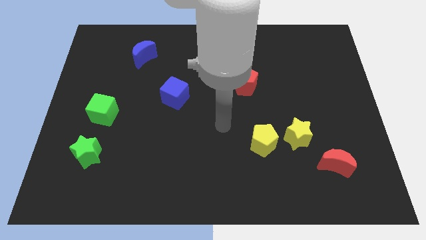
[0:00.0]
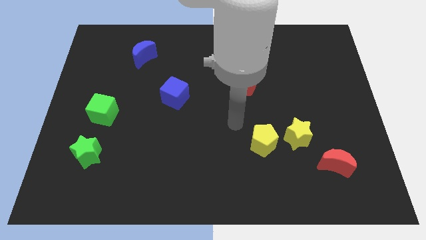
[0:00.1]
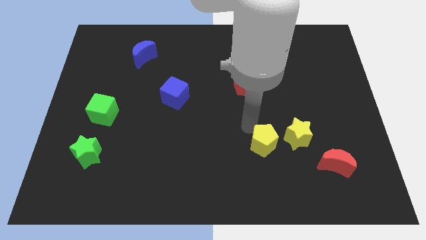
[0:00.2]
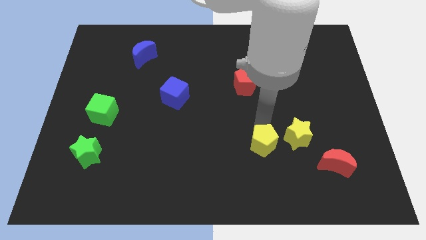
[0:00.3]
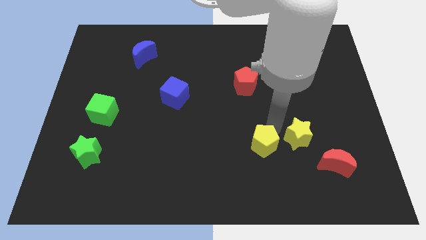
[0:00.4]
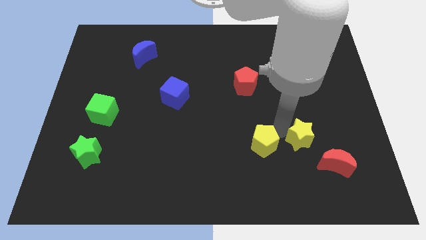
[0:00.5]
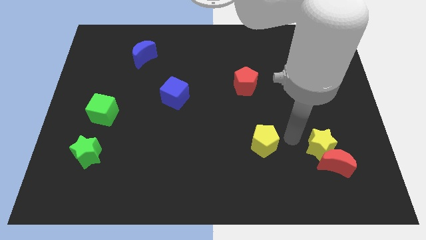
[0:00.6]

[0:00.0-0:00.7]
separate the yellow pentagon from the yellow star

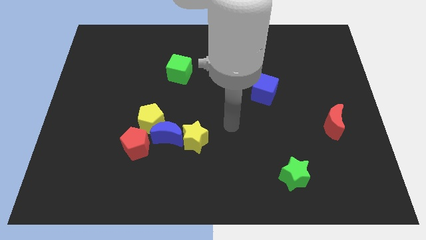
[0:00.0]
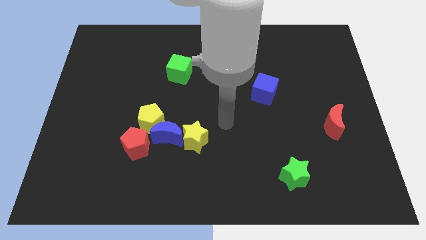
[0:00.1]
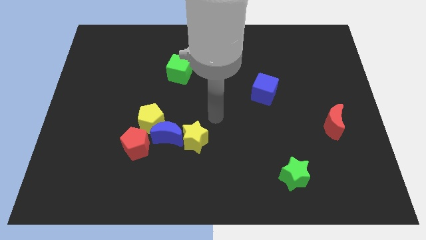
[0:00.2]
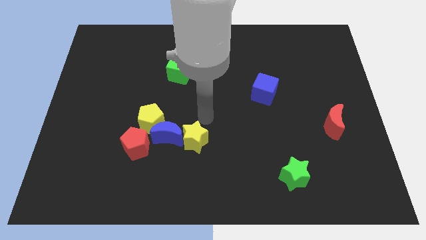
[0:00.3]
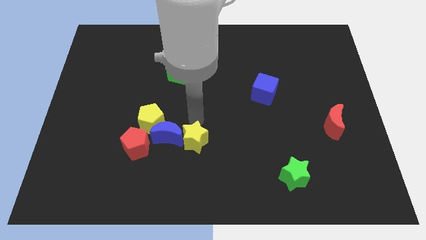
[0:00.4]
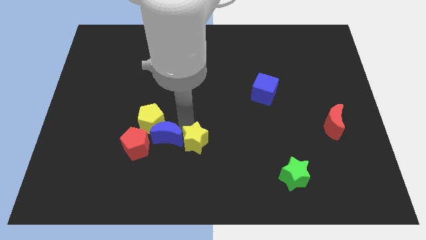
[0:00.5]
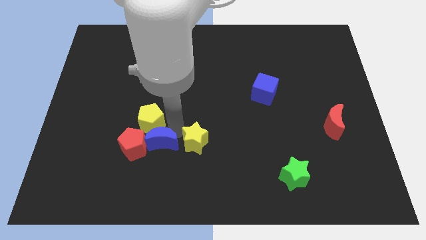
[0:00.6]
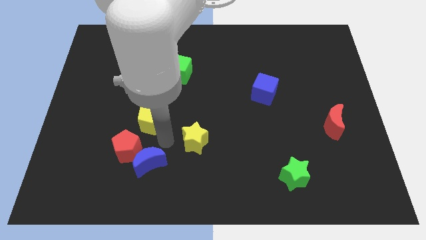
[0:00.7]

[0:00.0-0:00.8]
separate the yellow star from the blue moon

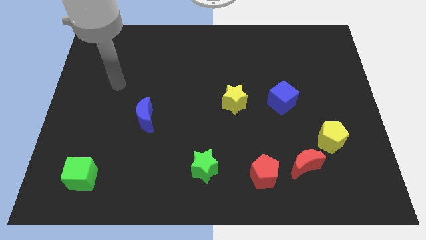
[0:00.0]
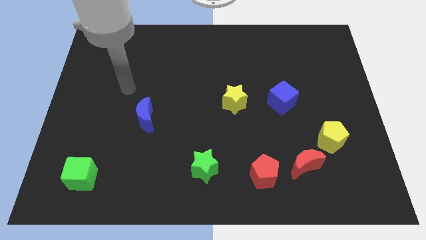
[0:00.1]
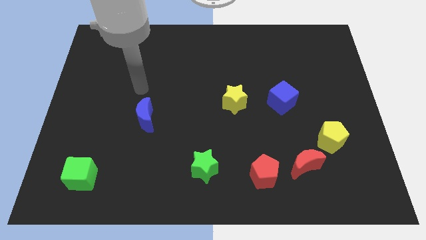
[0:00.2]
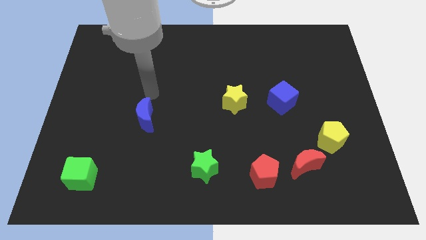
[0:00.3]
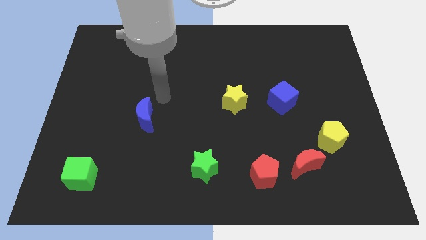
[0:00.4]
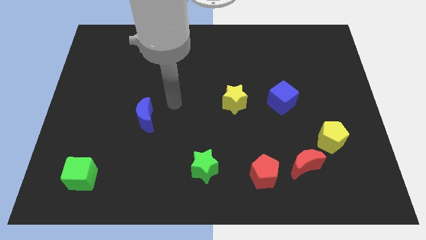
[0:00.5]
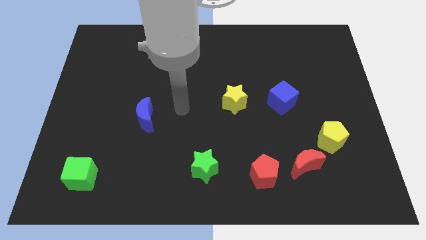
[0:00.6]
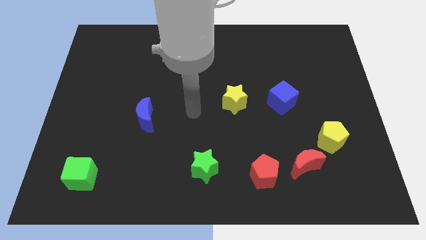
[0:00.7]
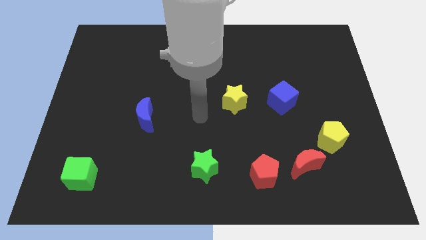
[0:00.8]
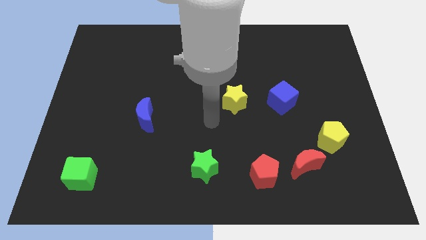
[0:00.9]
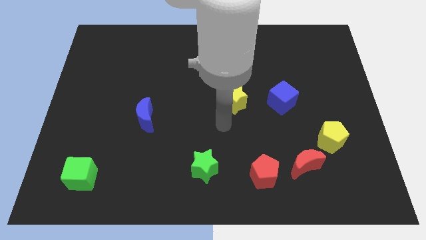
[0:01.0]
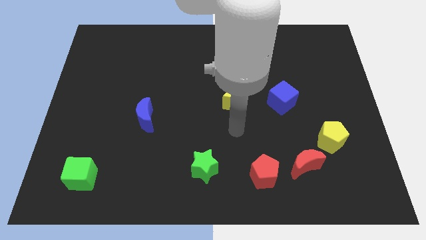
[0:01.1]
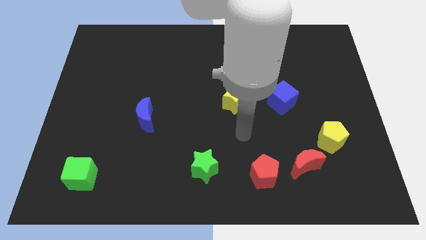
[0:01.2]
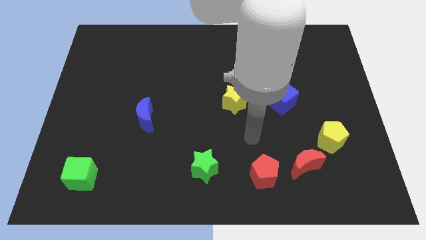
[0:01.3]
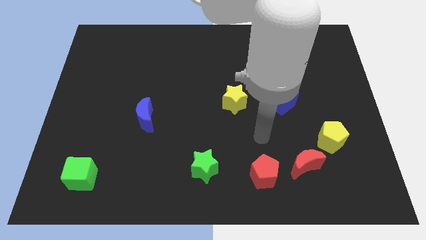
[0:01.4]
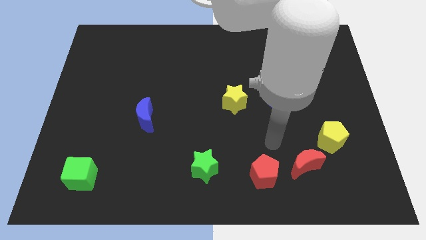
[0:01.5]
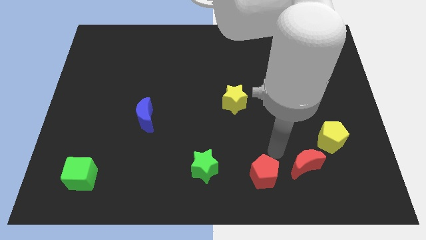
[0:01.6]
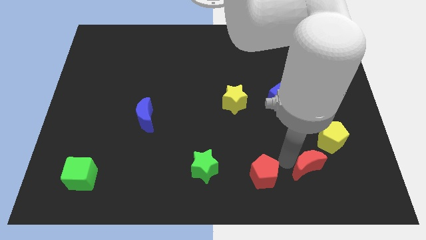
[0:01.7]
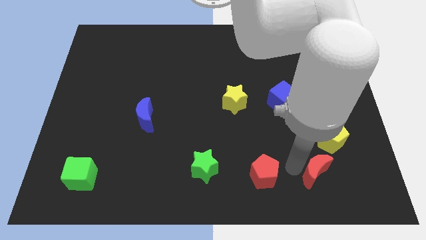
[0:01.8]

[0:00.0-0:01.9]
separate the red pentagon from the red moon

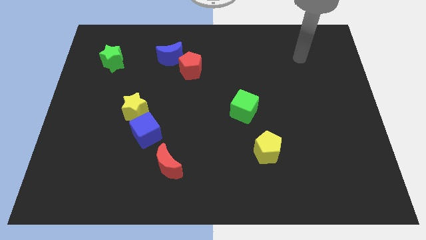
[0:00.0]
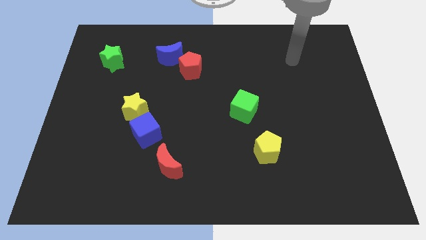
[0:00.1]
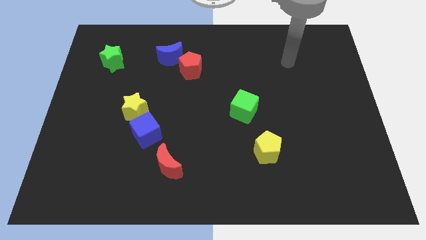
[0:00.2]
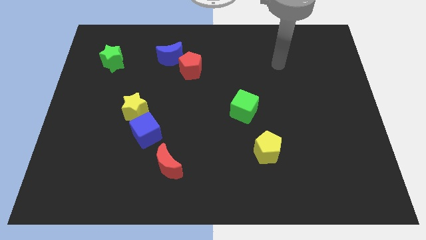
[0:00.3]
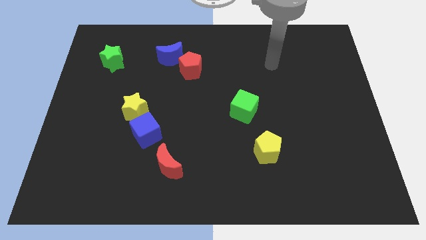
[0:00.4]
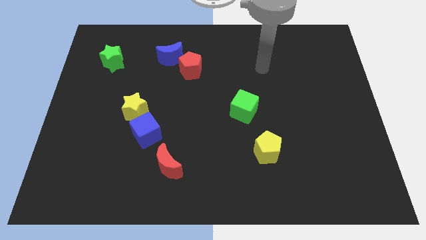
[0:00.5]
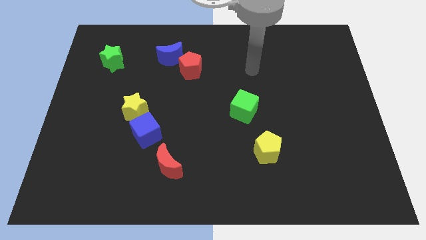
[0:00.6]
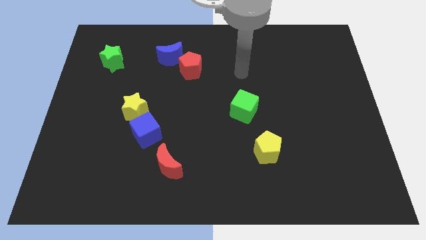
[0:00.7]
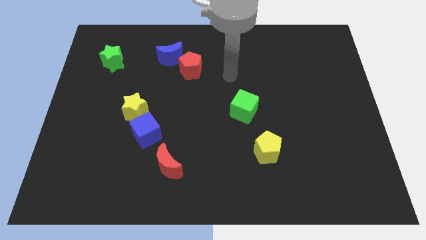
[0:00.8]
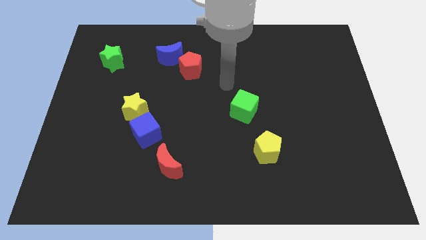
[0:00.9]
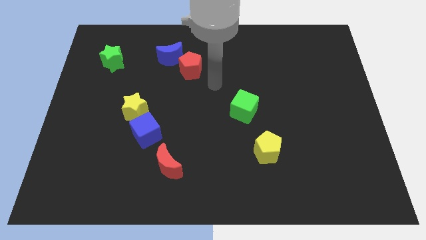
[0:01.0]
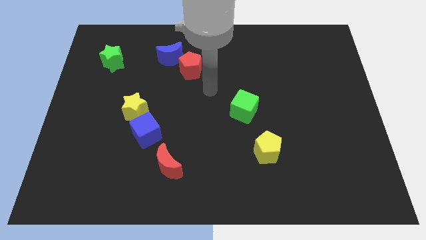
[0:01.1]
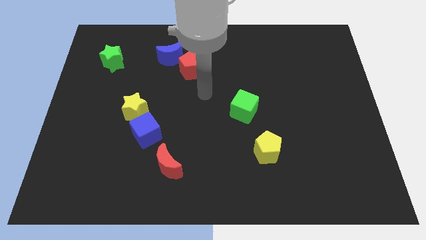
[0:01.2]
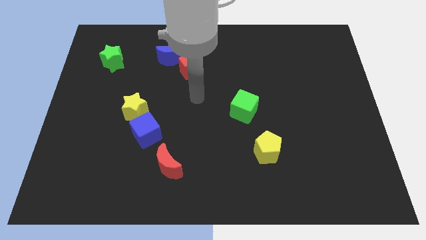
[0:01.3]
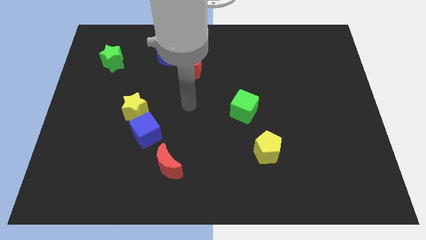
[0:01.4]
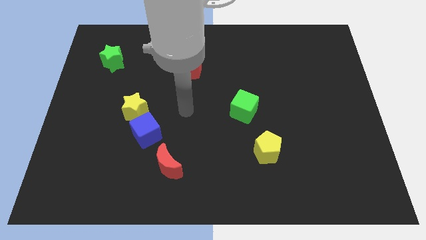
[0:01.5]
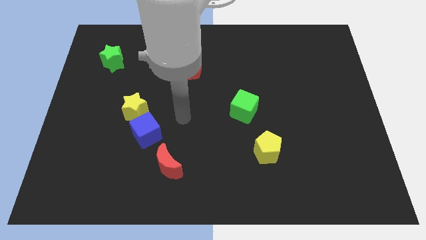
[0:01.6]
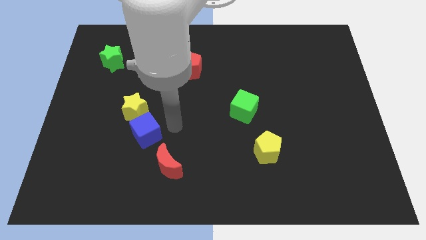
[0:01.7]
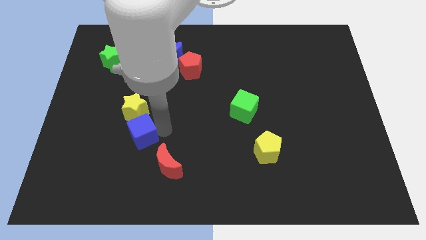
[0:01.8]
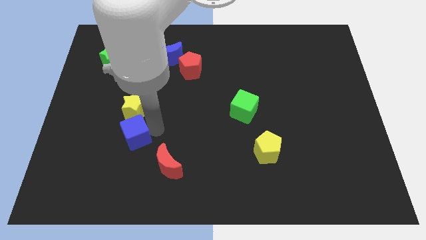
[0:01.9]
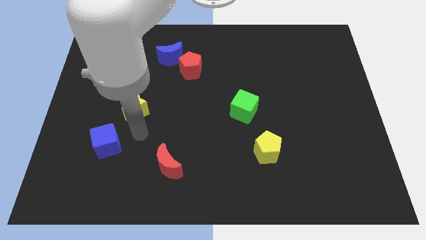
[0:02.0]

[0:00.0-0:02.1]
move the yellow star away from the blue cube

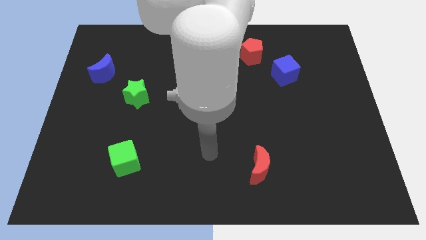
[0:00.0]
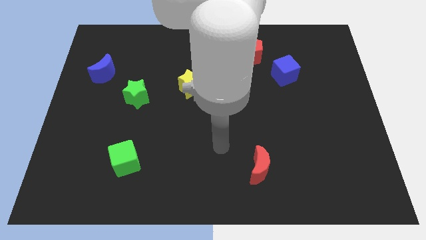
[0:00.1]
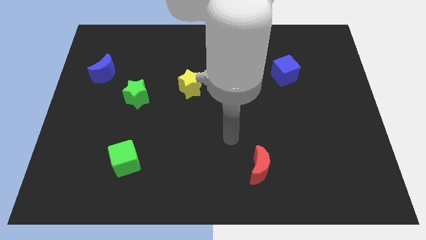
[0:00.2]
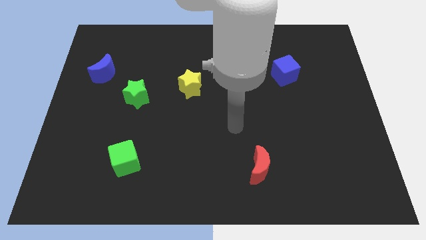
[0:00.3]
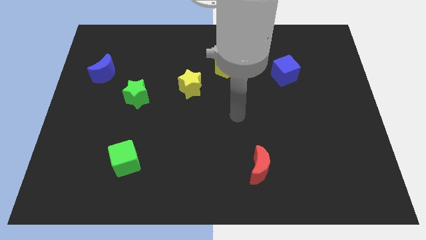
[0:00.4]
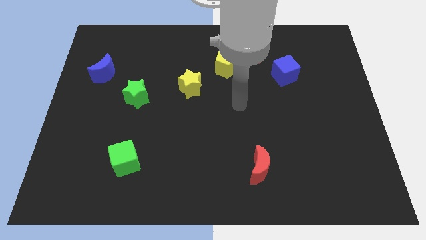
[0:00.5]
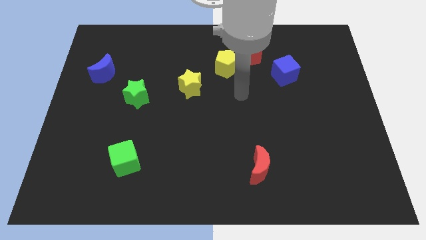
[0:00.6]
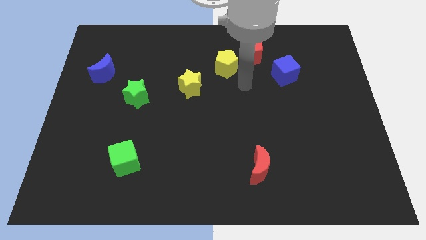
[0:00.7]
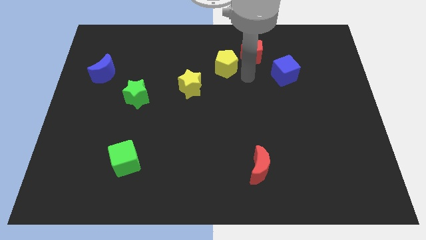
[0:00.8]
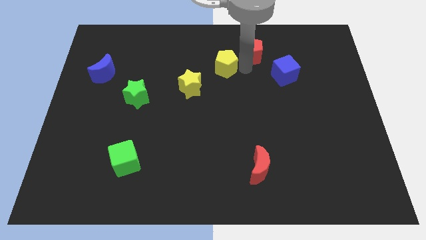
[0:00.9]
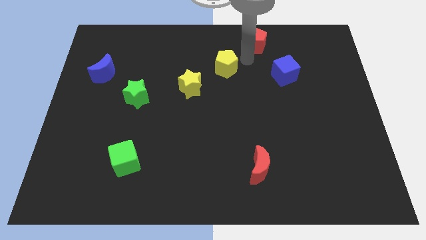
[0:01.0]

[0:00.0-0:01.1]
move the yellow pentagon away from the red pentagon

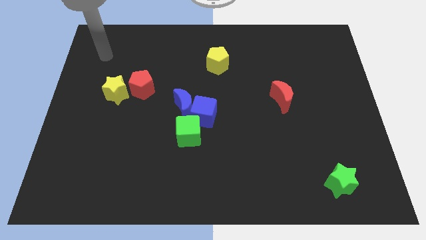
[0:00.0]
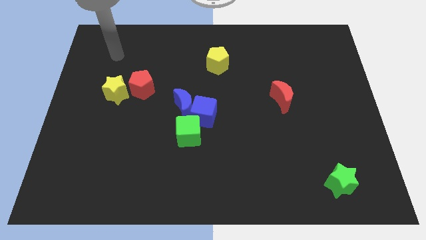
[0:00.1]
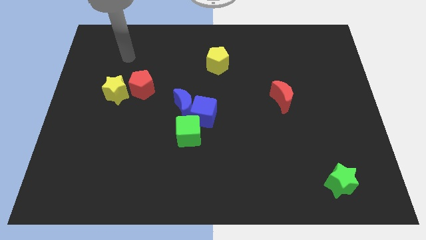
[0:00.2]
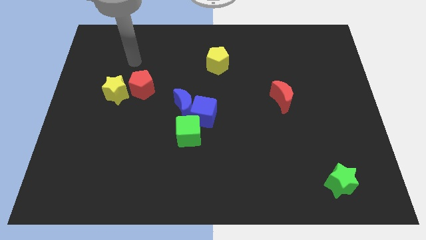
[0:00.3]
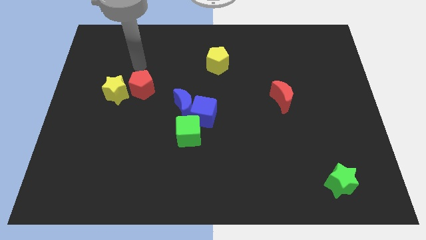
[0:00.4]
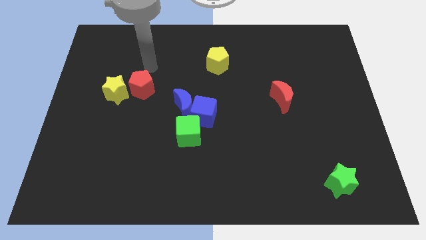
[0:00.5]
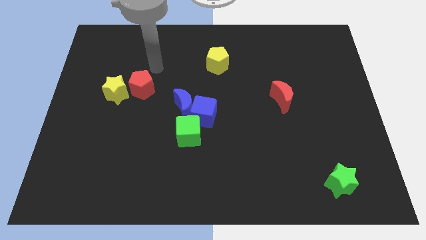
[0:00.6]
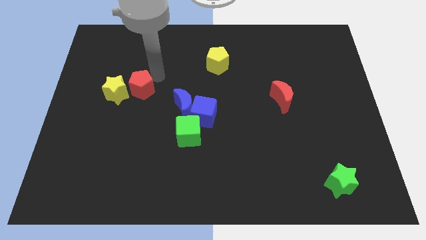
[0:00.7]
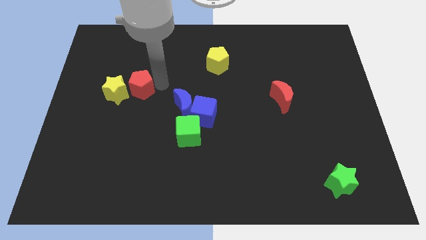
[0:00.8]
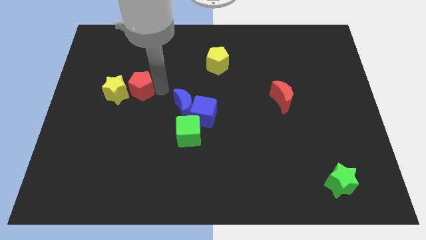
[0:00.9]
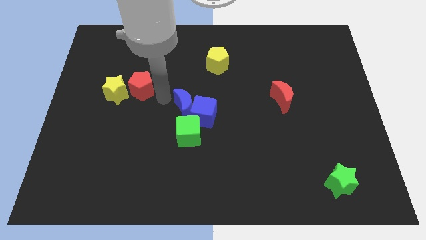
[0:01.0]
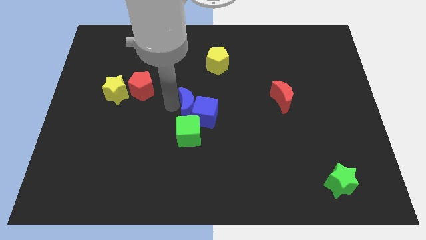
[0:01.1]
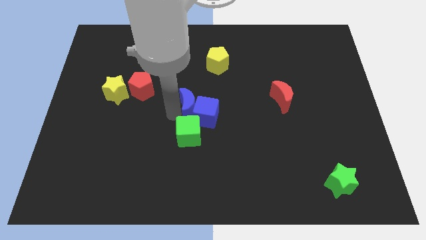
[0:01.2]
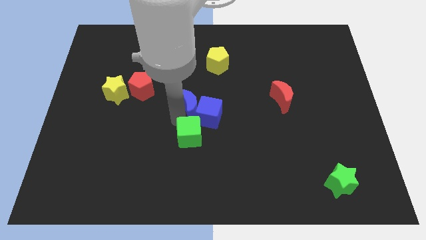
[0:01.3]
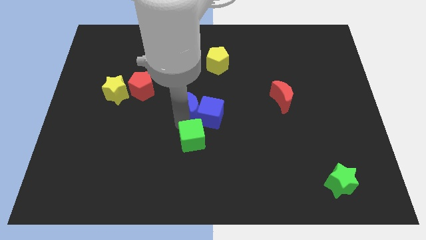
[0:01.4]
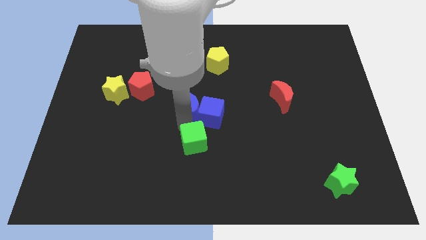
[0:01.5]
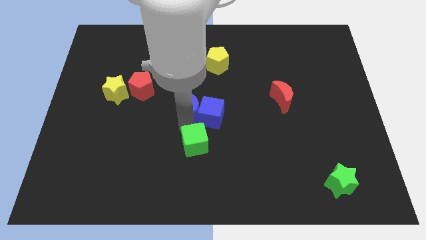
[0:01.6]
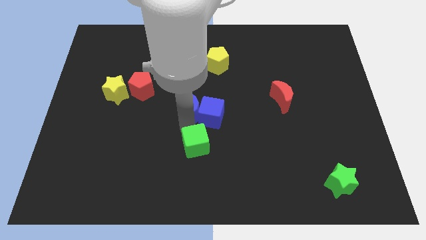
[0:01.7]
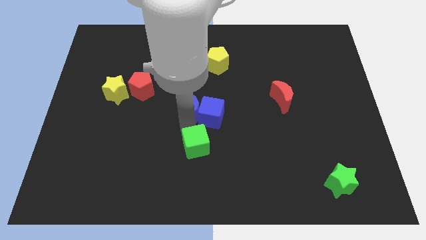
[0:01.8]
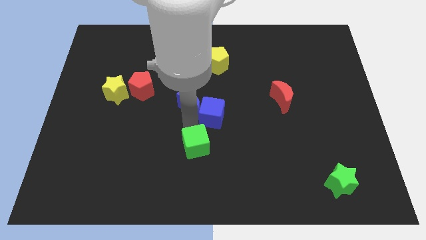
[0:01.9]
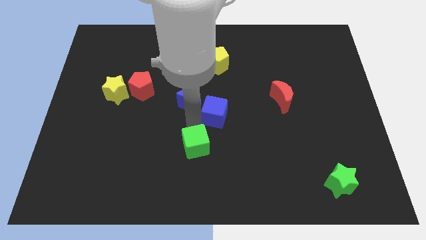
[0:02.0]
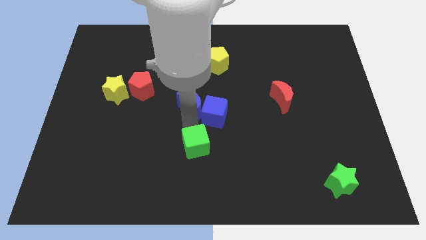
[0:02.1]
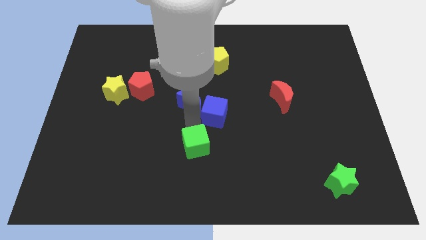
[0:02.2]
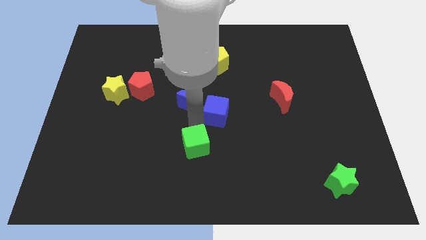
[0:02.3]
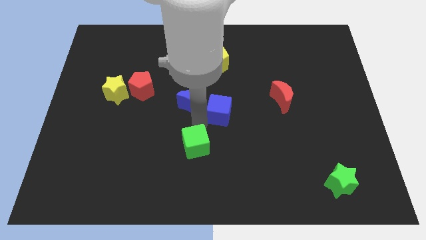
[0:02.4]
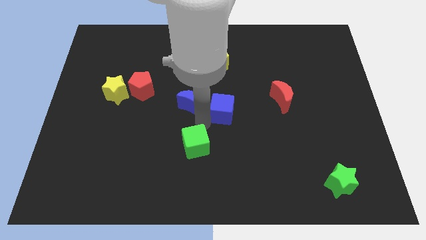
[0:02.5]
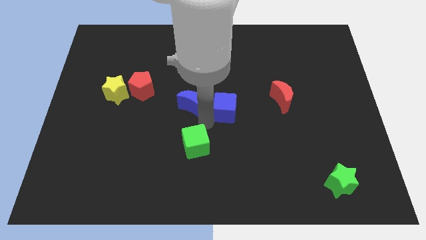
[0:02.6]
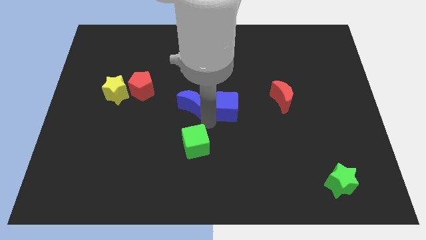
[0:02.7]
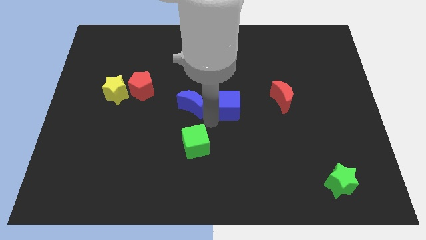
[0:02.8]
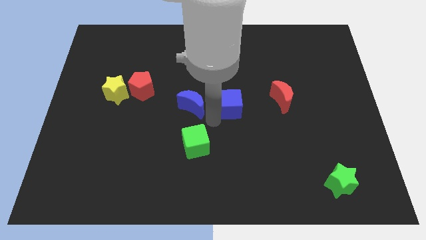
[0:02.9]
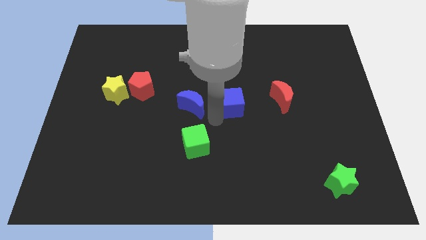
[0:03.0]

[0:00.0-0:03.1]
separate the blue cube from the blue moon and green cube
